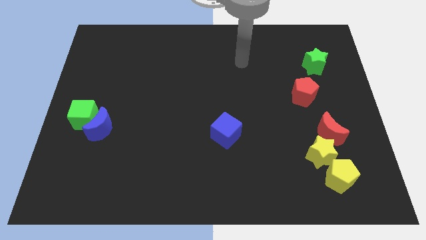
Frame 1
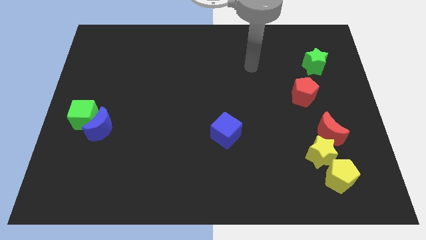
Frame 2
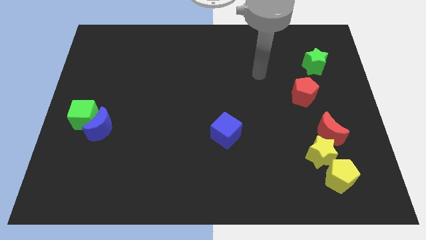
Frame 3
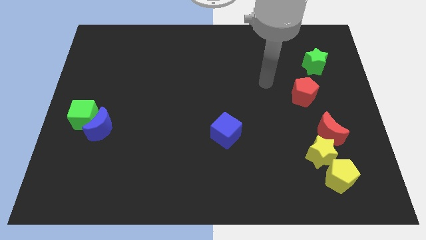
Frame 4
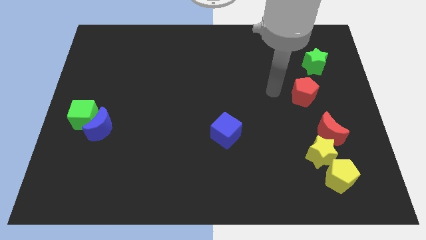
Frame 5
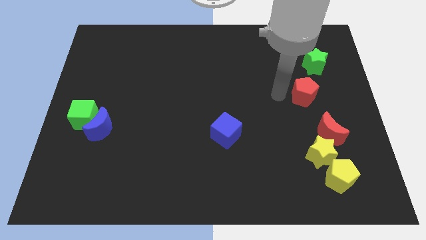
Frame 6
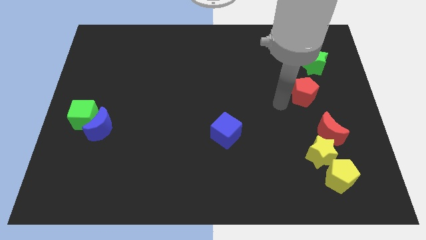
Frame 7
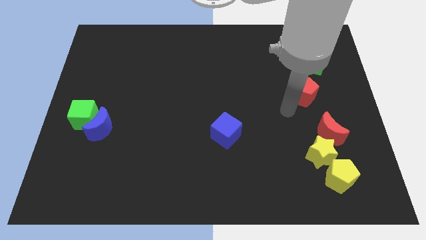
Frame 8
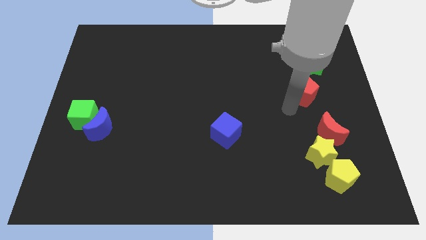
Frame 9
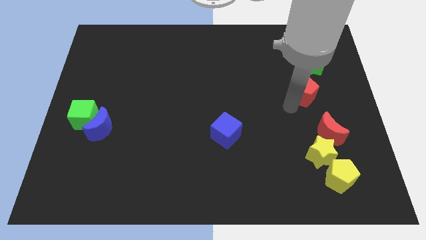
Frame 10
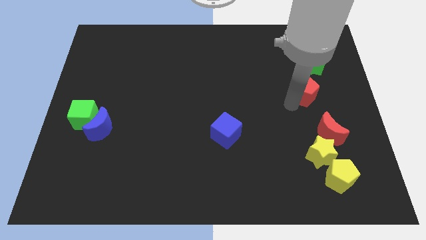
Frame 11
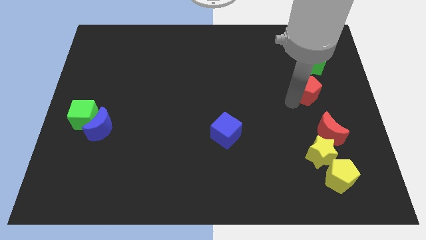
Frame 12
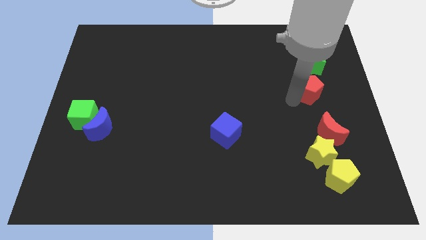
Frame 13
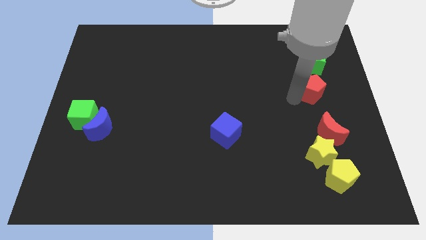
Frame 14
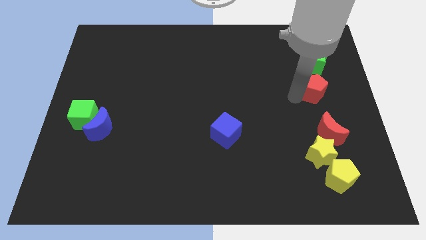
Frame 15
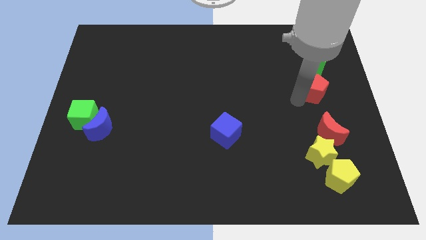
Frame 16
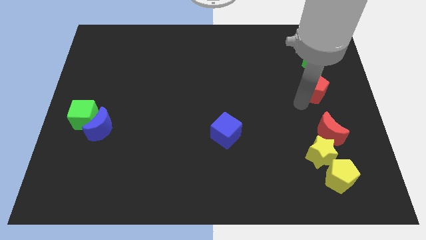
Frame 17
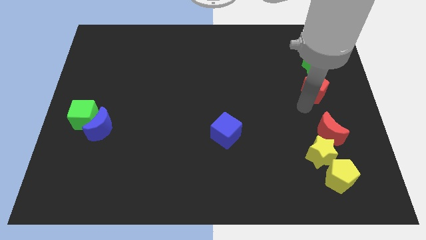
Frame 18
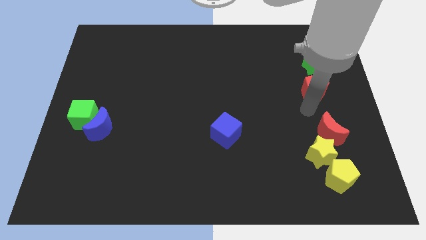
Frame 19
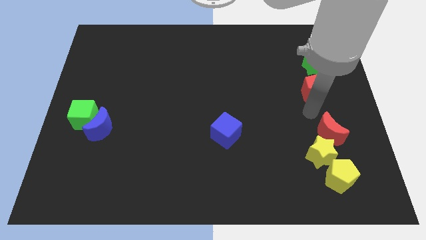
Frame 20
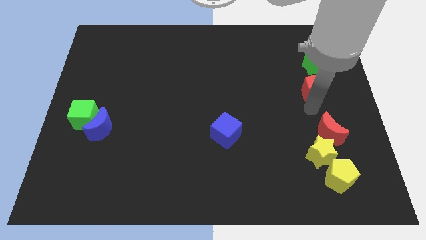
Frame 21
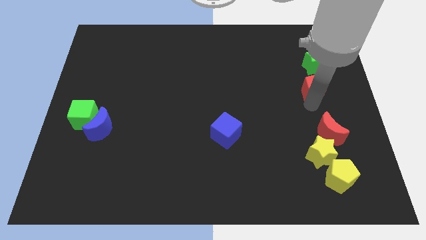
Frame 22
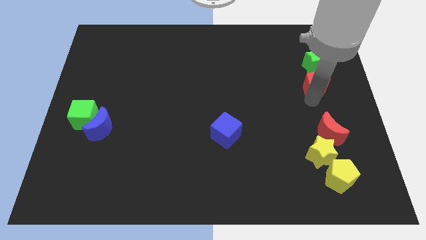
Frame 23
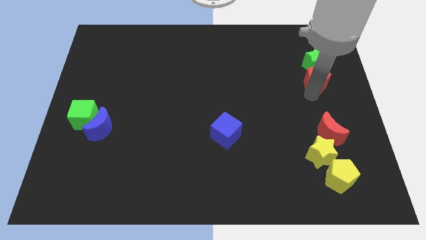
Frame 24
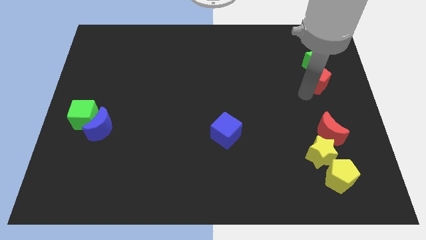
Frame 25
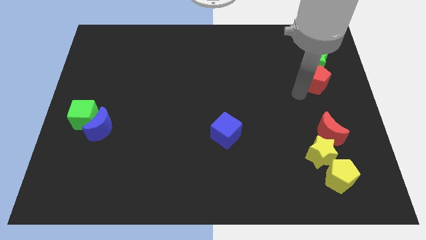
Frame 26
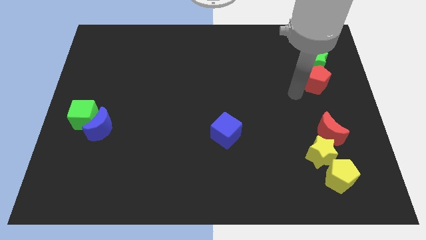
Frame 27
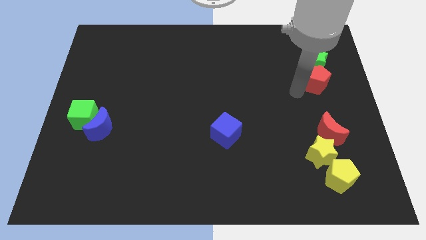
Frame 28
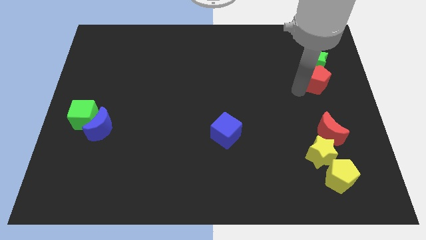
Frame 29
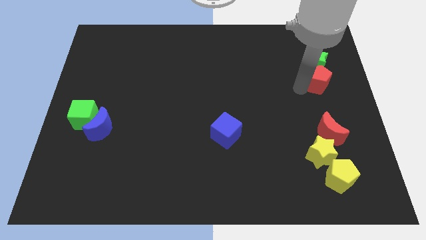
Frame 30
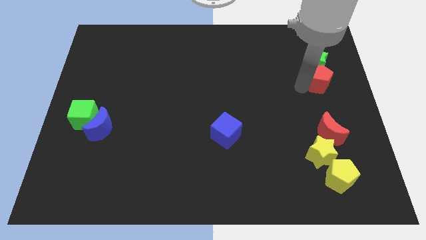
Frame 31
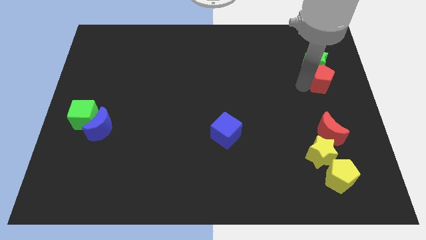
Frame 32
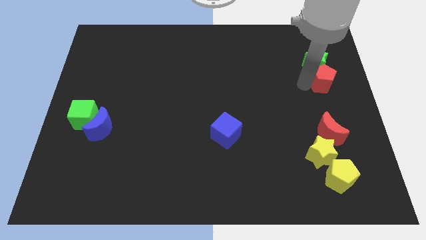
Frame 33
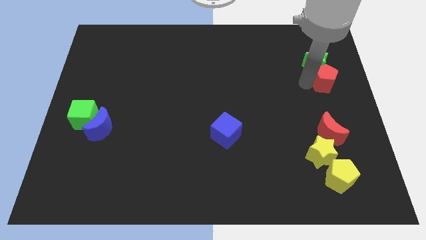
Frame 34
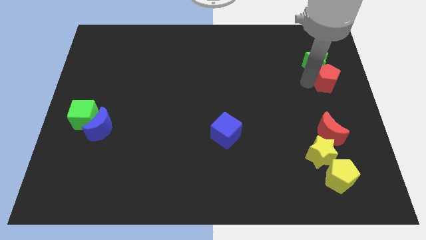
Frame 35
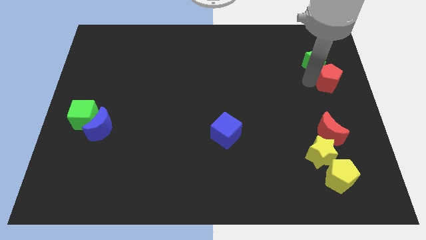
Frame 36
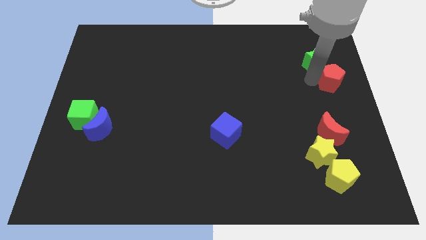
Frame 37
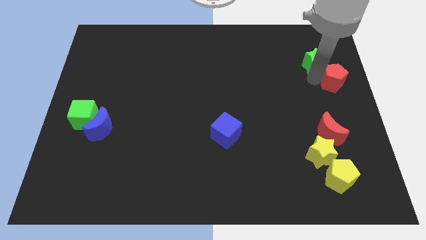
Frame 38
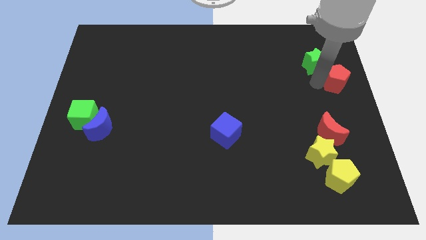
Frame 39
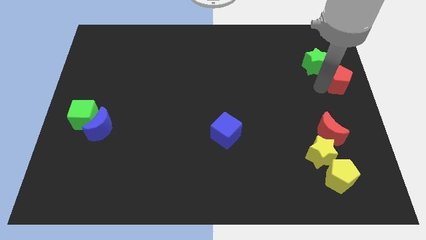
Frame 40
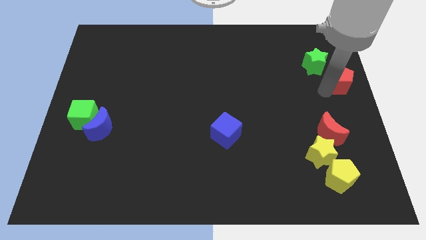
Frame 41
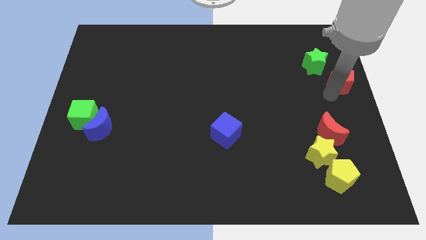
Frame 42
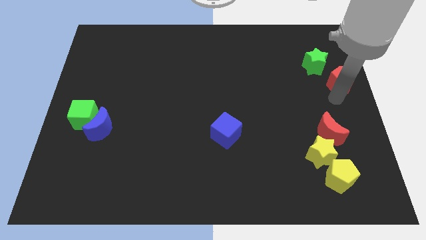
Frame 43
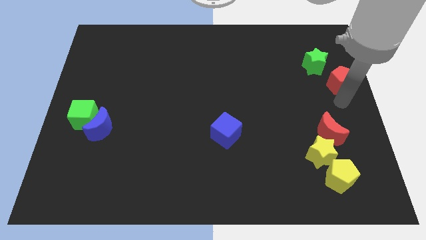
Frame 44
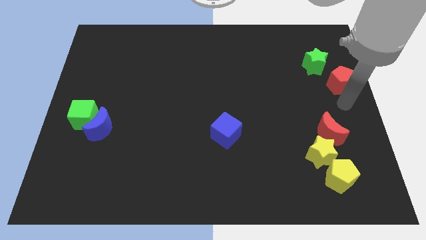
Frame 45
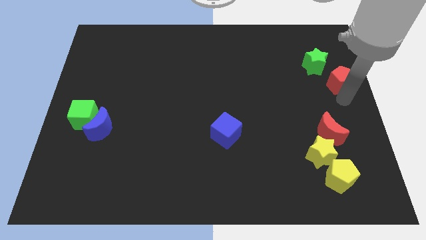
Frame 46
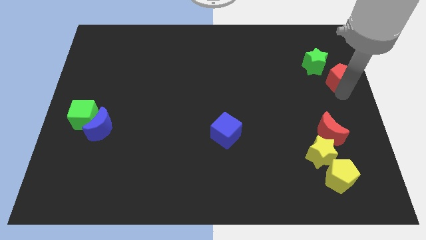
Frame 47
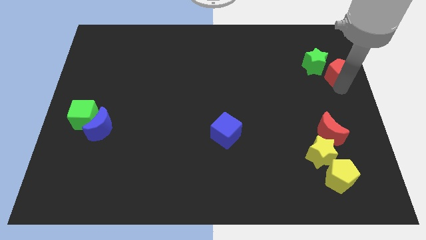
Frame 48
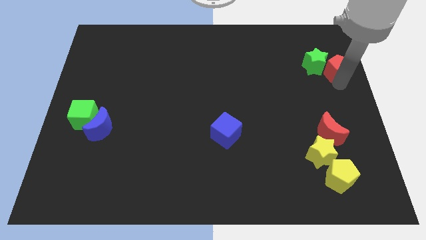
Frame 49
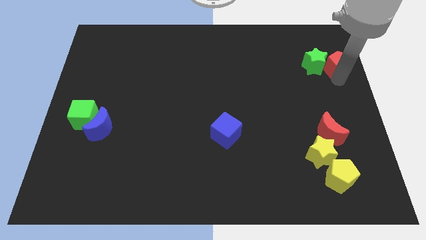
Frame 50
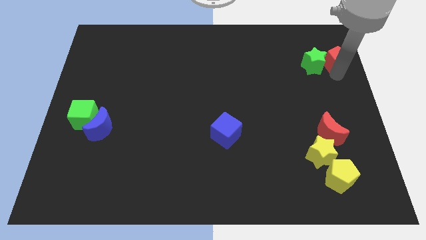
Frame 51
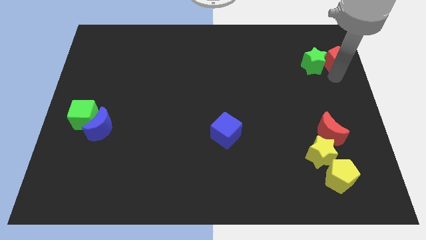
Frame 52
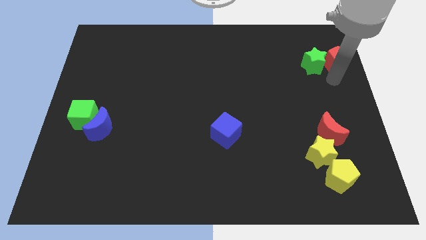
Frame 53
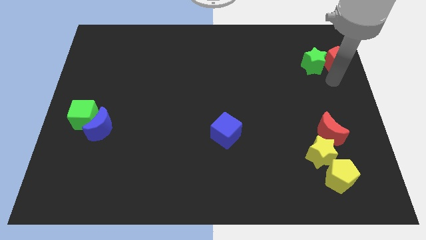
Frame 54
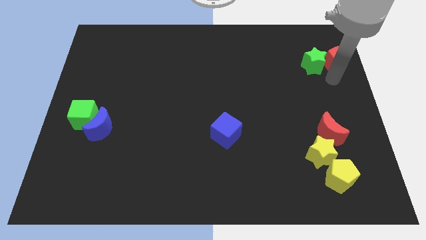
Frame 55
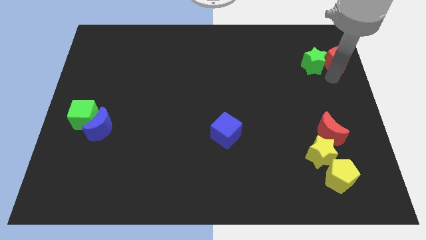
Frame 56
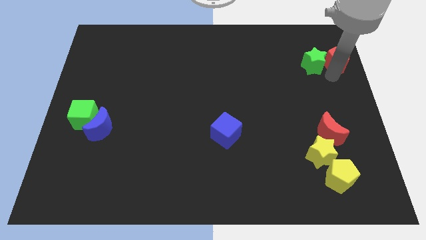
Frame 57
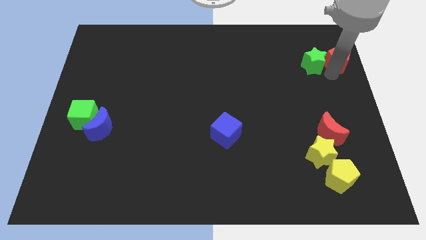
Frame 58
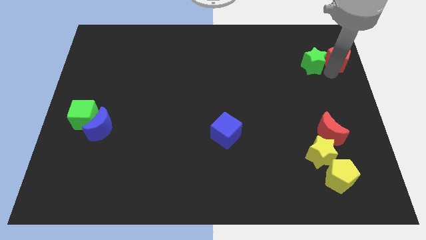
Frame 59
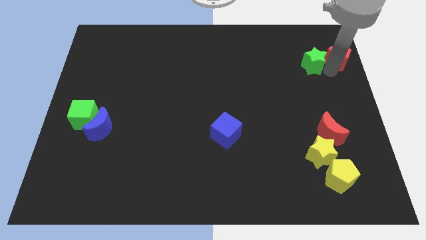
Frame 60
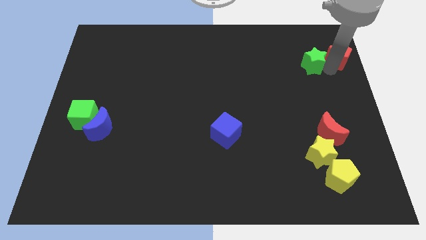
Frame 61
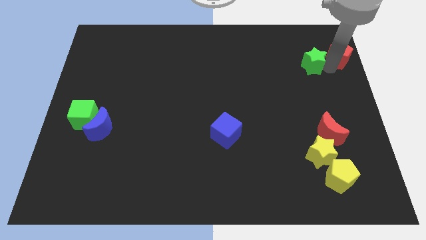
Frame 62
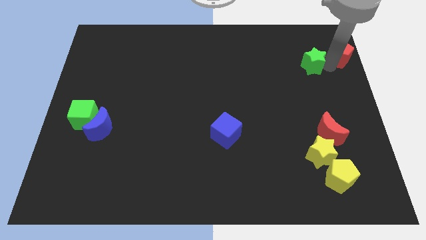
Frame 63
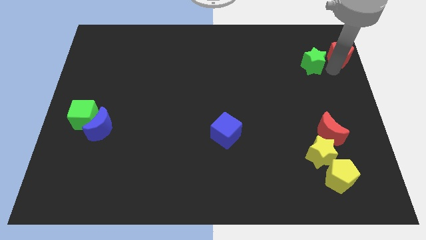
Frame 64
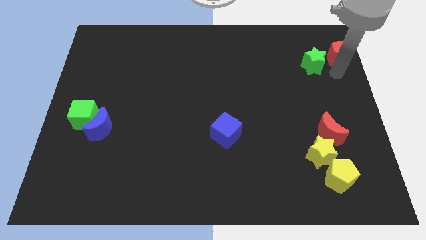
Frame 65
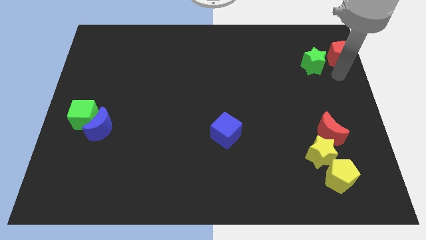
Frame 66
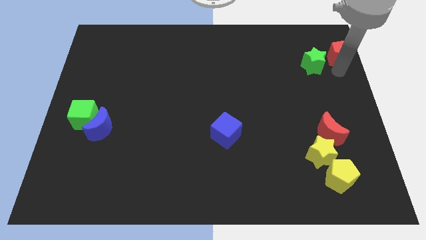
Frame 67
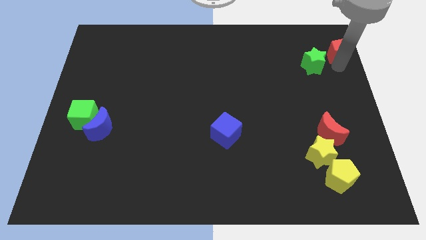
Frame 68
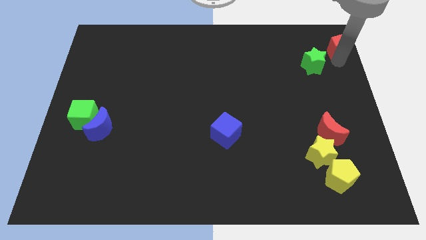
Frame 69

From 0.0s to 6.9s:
push the red pentagon to the top right corner
